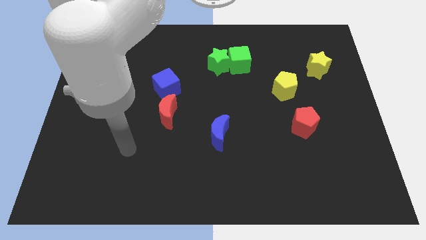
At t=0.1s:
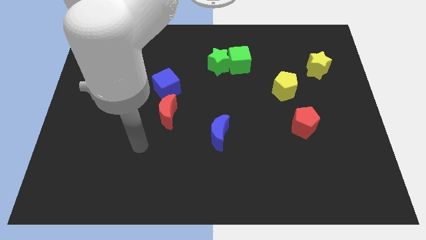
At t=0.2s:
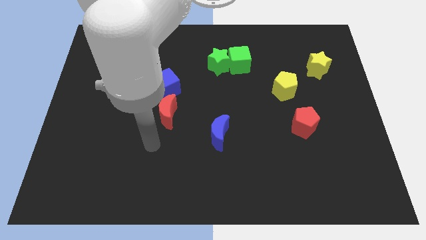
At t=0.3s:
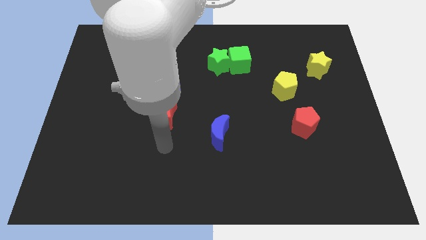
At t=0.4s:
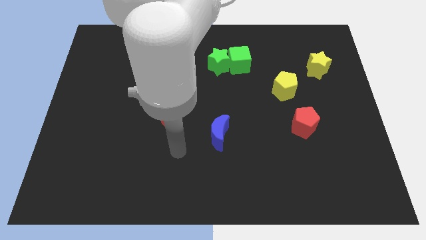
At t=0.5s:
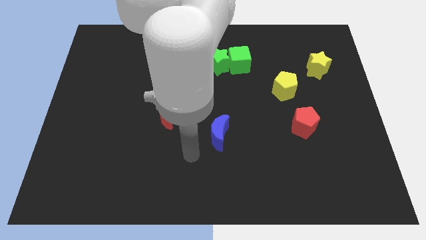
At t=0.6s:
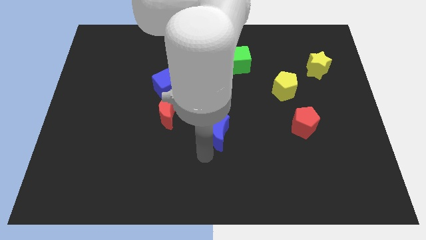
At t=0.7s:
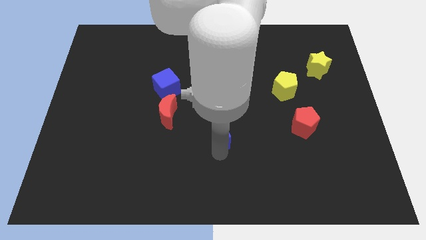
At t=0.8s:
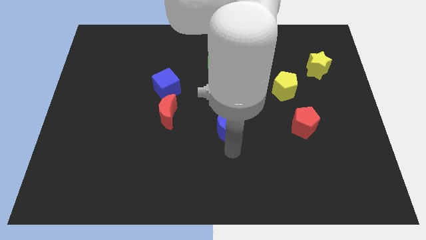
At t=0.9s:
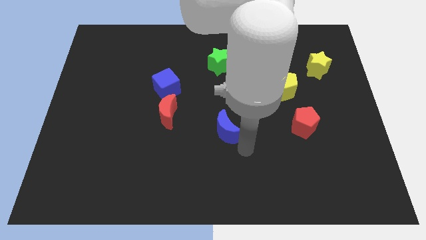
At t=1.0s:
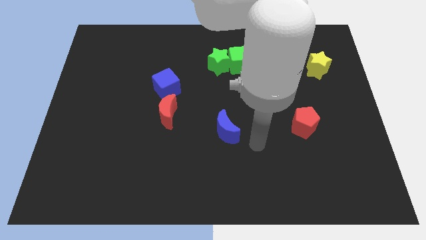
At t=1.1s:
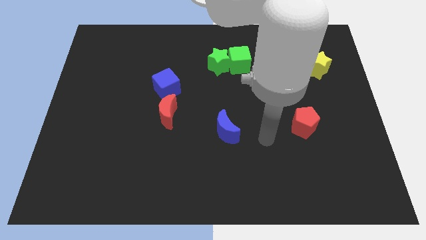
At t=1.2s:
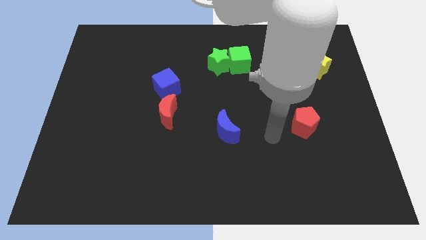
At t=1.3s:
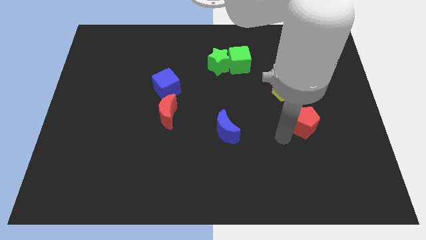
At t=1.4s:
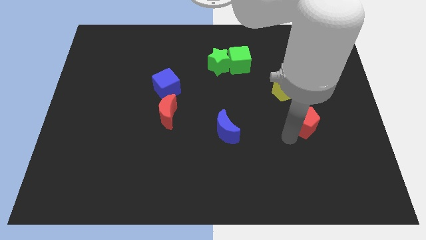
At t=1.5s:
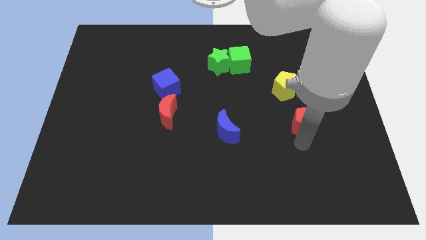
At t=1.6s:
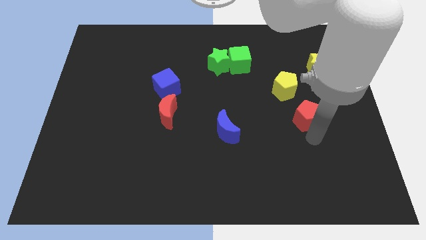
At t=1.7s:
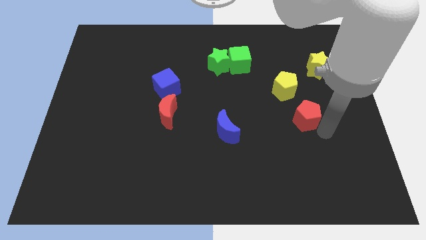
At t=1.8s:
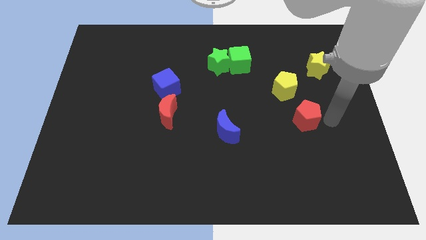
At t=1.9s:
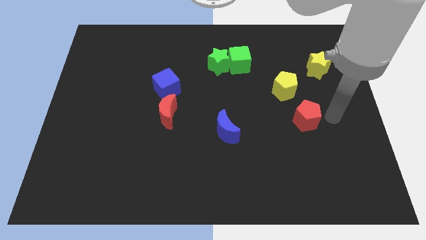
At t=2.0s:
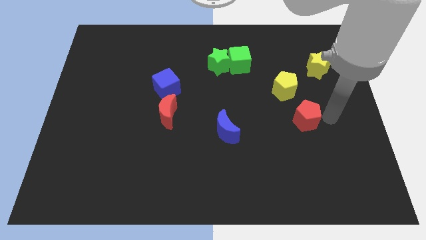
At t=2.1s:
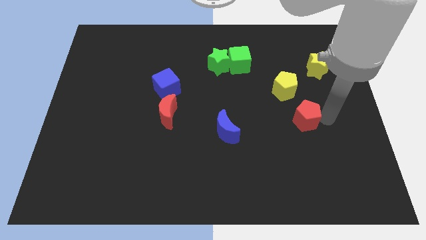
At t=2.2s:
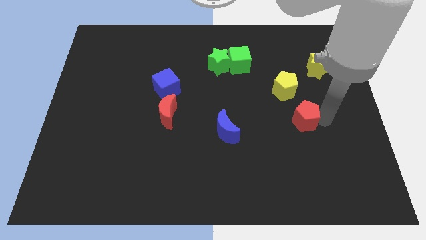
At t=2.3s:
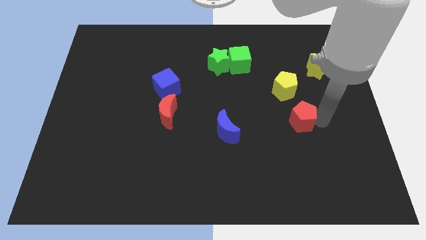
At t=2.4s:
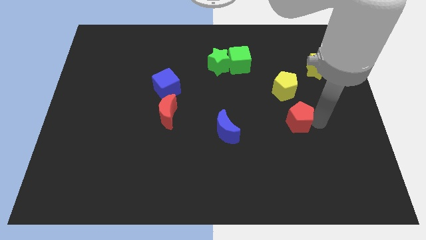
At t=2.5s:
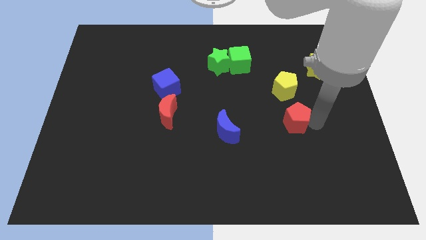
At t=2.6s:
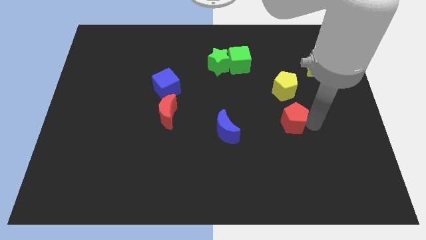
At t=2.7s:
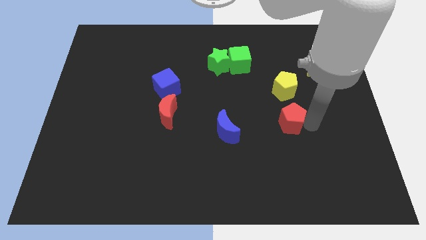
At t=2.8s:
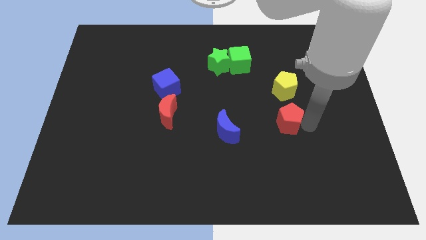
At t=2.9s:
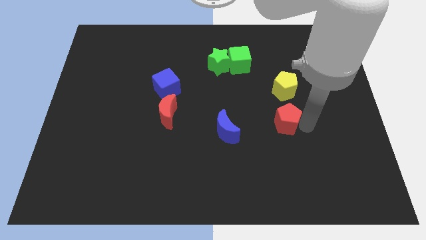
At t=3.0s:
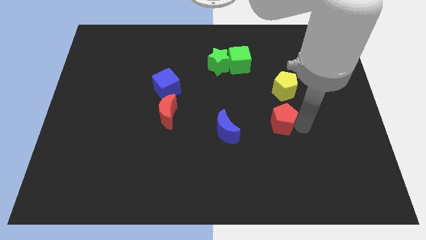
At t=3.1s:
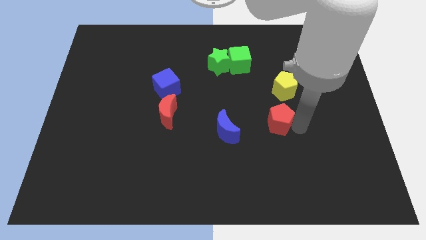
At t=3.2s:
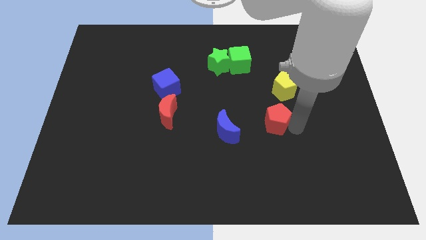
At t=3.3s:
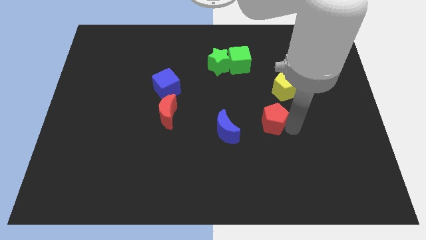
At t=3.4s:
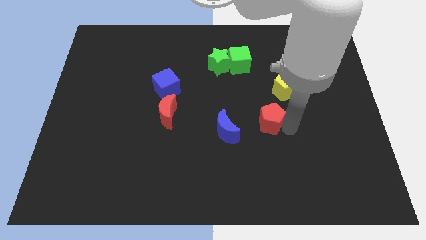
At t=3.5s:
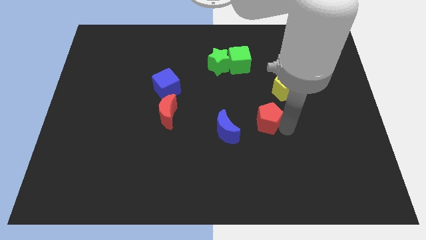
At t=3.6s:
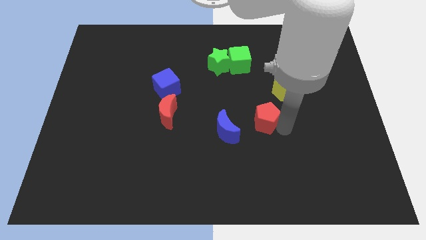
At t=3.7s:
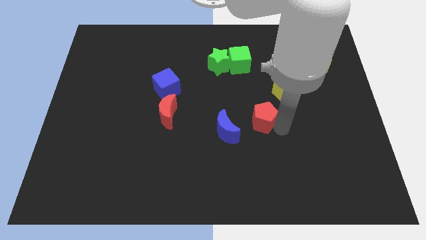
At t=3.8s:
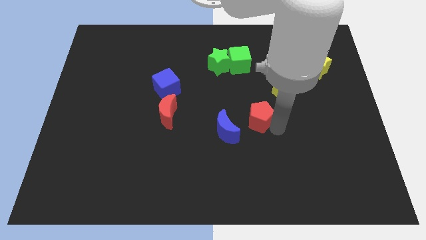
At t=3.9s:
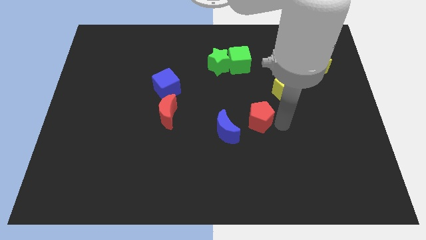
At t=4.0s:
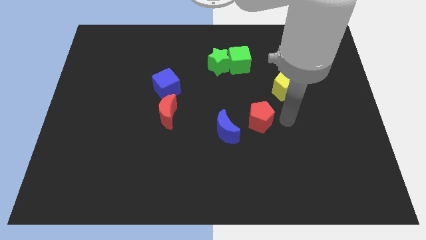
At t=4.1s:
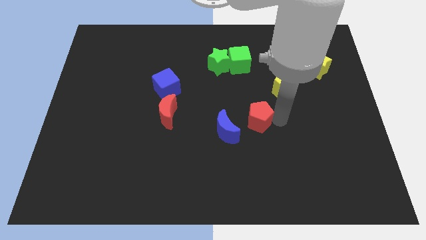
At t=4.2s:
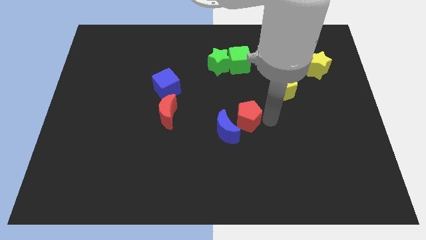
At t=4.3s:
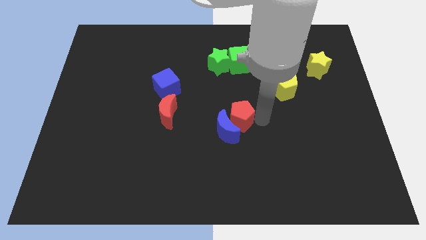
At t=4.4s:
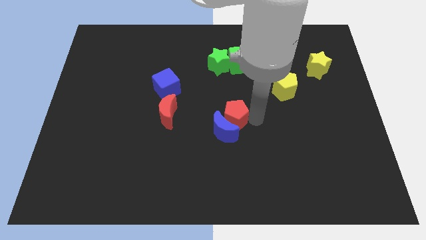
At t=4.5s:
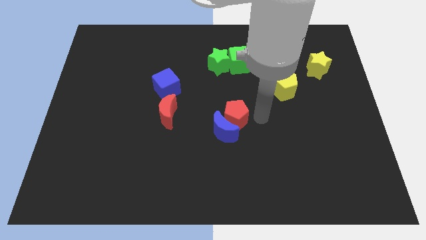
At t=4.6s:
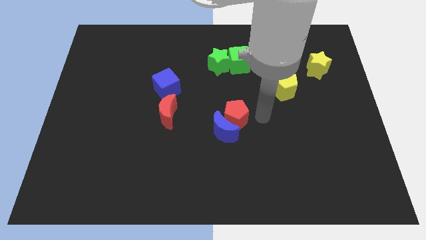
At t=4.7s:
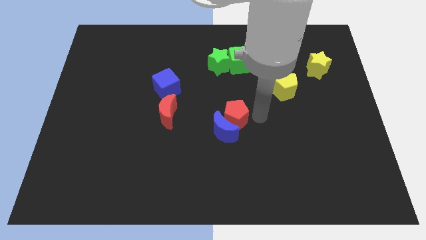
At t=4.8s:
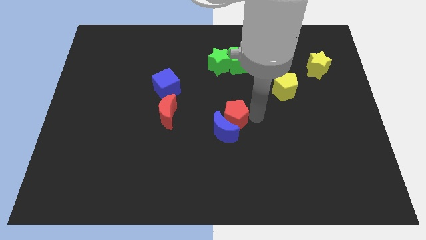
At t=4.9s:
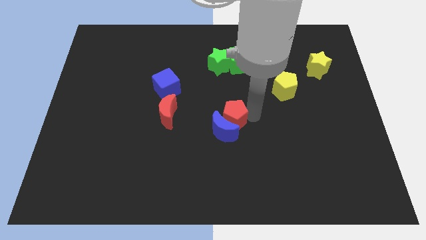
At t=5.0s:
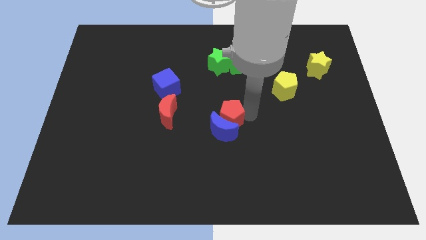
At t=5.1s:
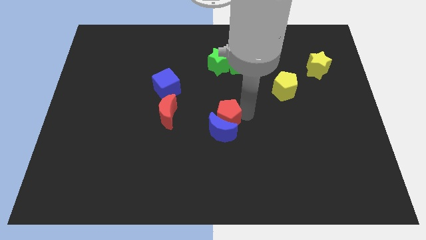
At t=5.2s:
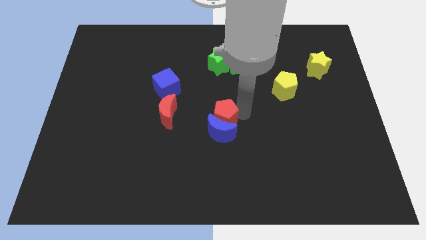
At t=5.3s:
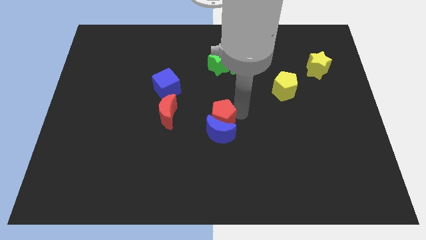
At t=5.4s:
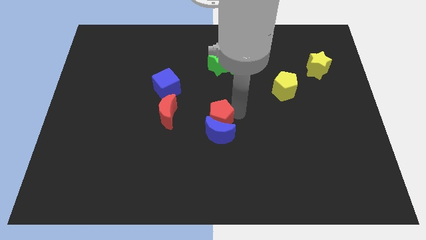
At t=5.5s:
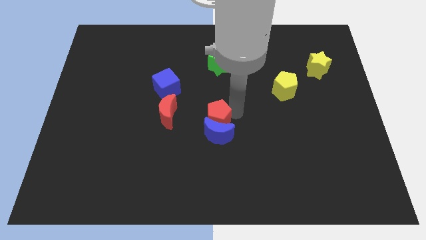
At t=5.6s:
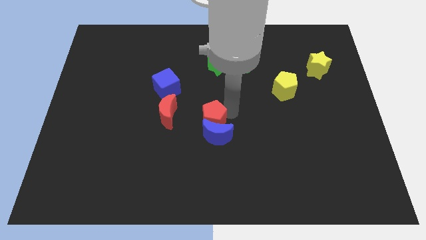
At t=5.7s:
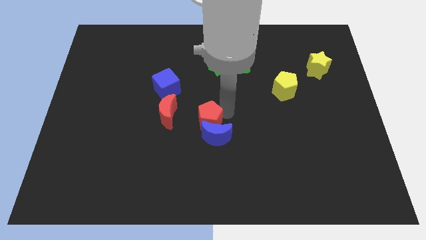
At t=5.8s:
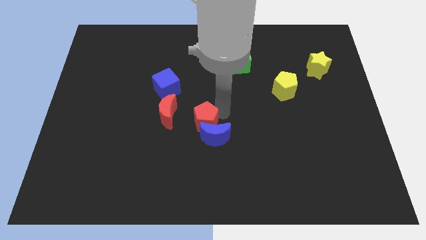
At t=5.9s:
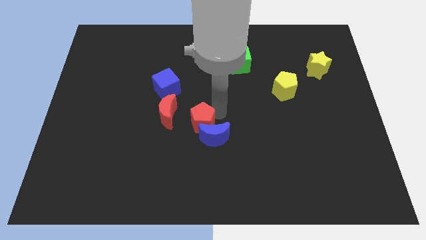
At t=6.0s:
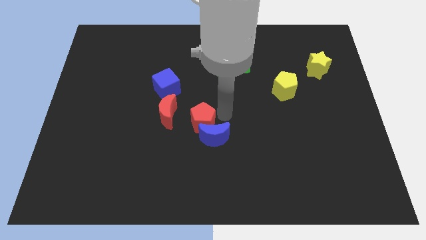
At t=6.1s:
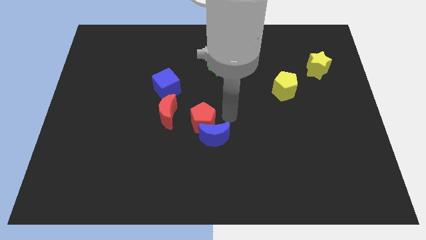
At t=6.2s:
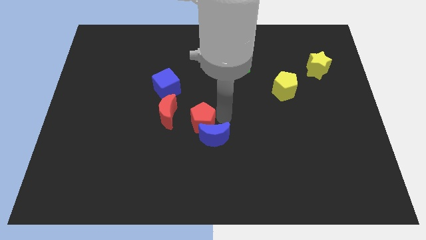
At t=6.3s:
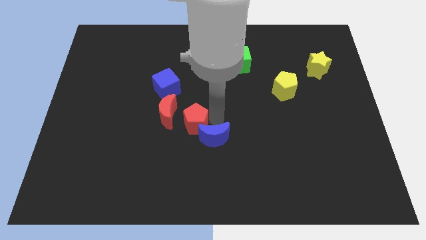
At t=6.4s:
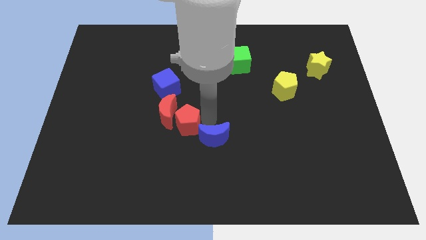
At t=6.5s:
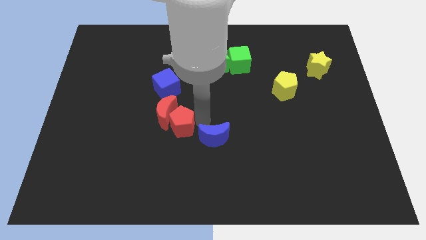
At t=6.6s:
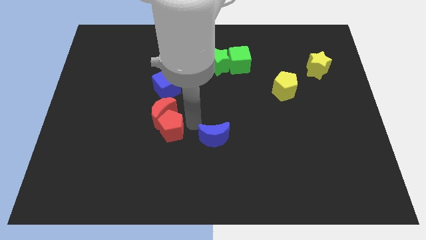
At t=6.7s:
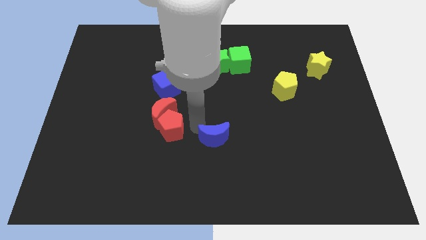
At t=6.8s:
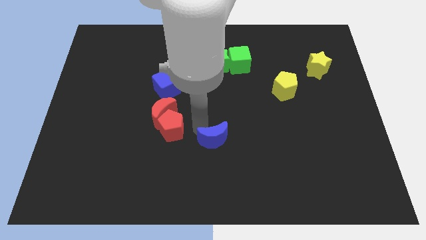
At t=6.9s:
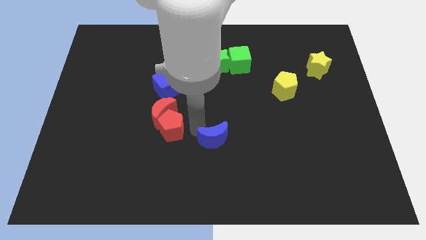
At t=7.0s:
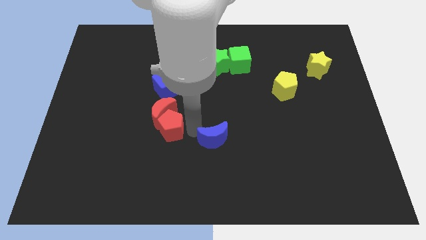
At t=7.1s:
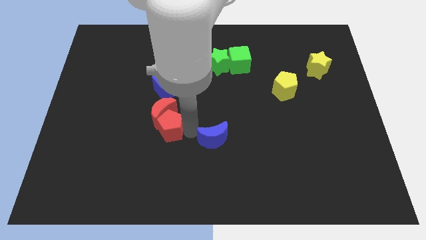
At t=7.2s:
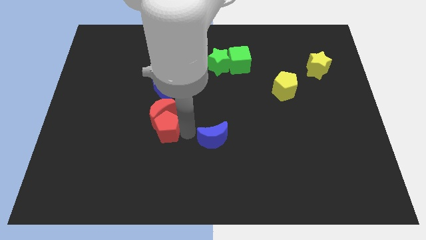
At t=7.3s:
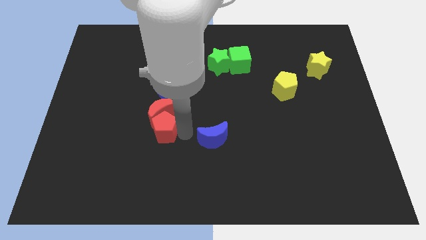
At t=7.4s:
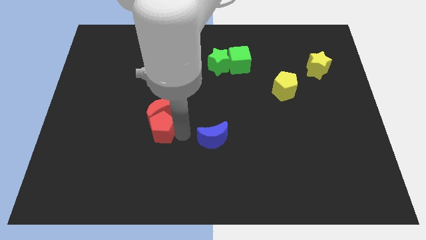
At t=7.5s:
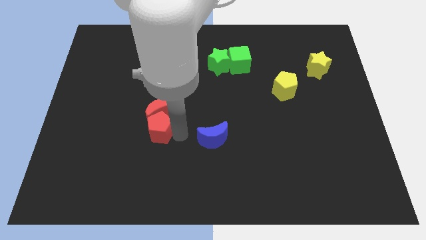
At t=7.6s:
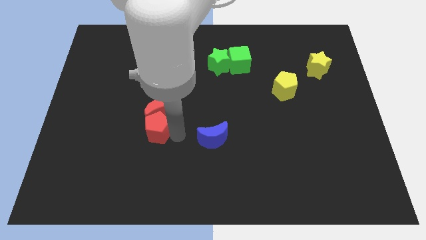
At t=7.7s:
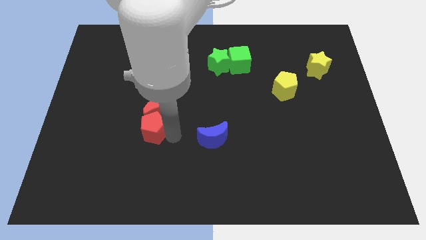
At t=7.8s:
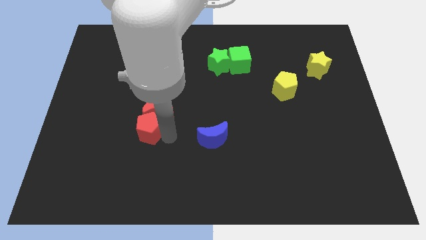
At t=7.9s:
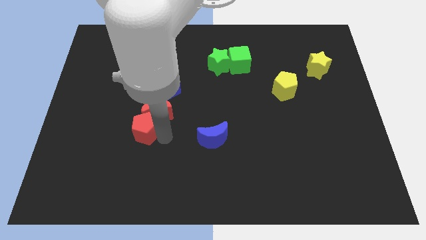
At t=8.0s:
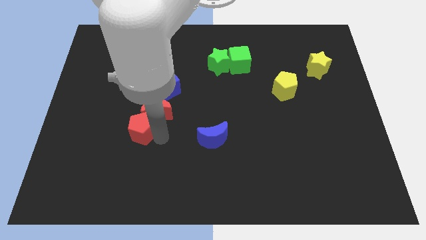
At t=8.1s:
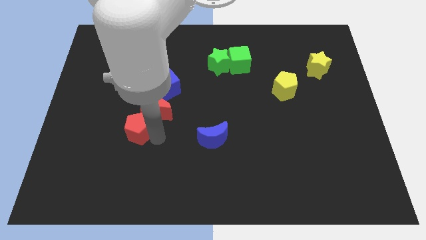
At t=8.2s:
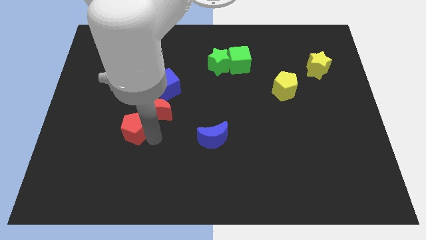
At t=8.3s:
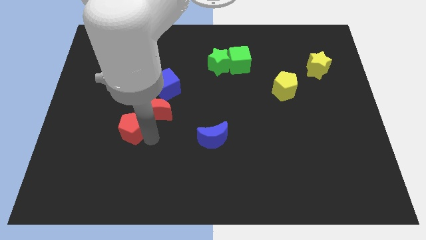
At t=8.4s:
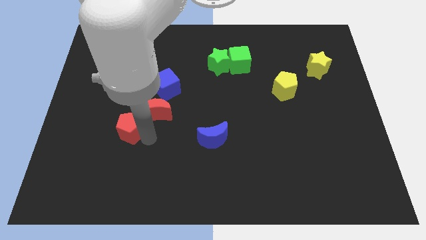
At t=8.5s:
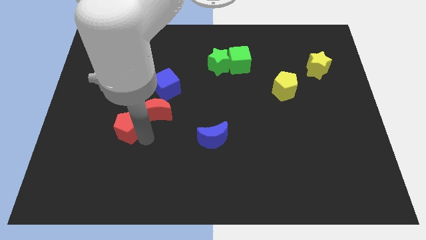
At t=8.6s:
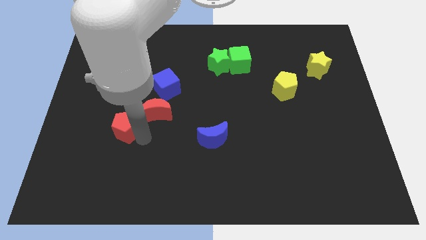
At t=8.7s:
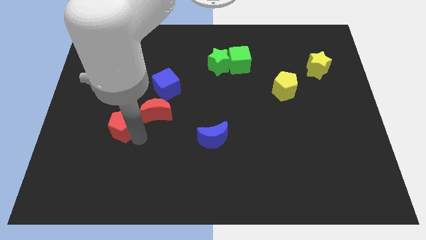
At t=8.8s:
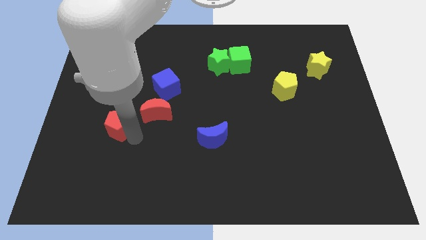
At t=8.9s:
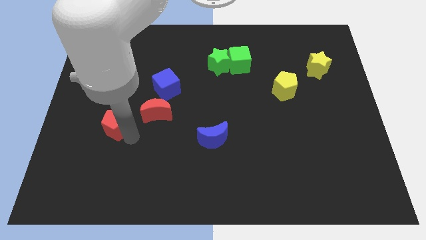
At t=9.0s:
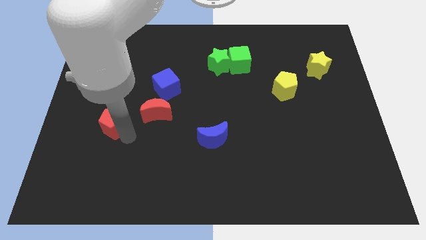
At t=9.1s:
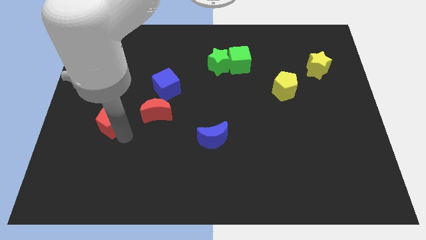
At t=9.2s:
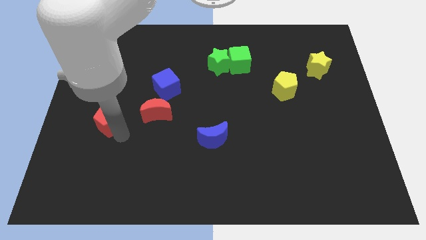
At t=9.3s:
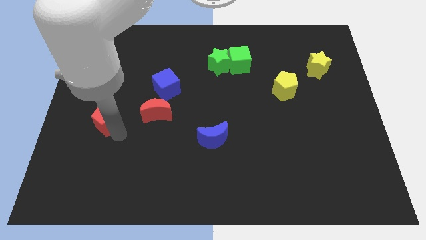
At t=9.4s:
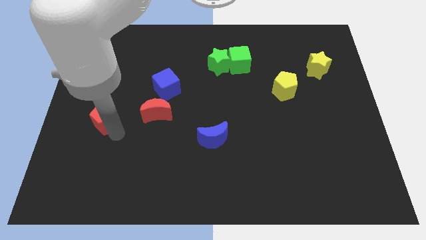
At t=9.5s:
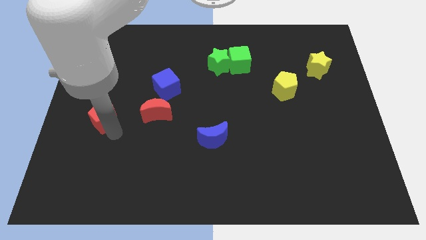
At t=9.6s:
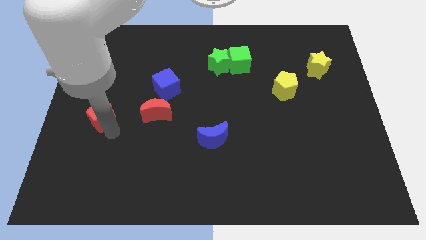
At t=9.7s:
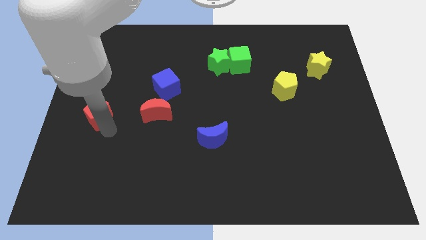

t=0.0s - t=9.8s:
move the red pentagon to the left side of the board
